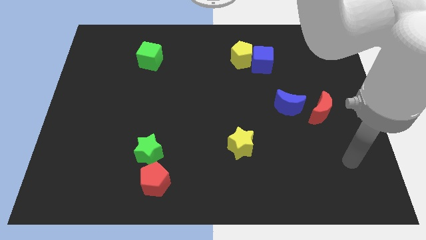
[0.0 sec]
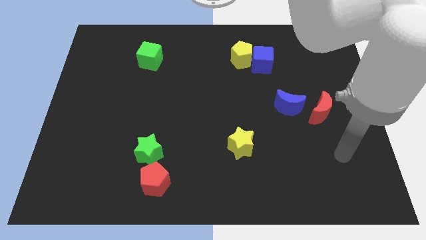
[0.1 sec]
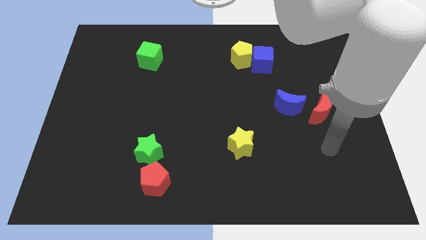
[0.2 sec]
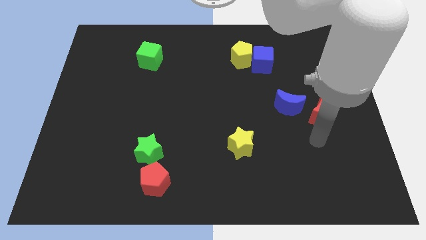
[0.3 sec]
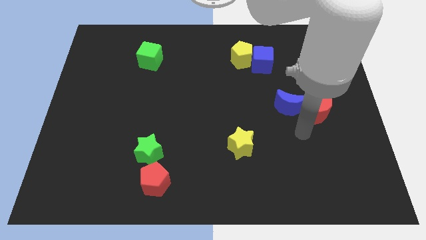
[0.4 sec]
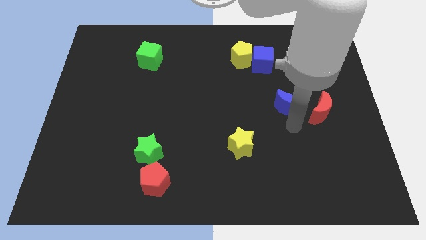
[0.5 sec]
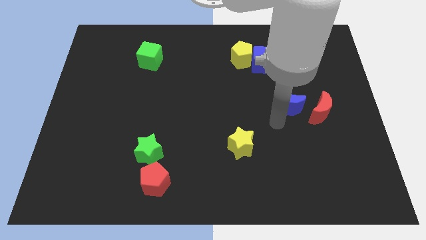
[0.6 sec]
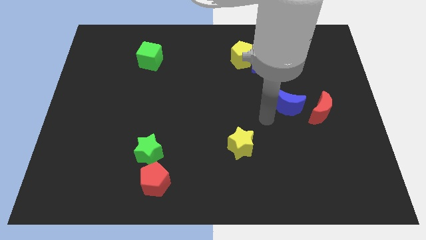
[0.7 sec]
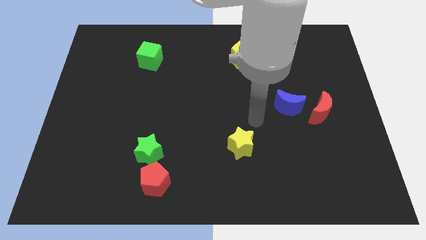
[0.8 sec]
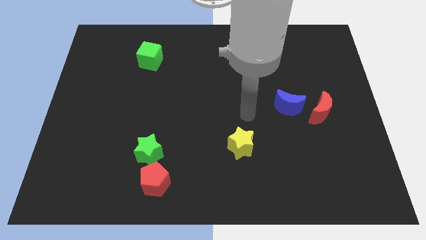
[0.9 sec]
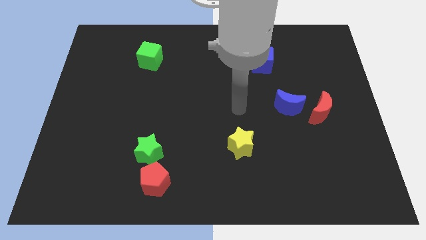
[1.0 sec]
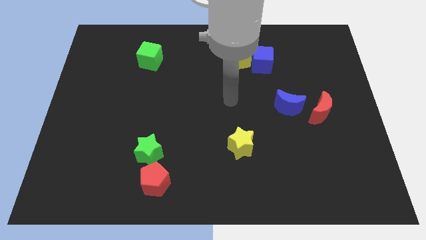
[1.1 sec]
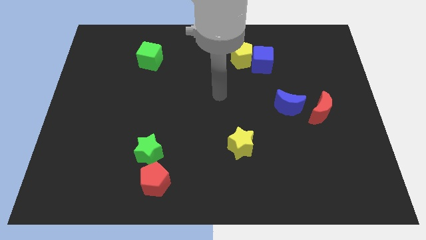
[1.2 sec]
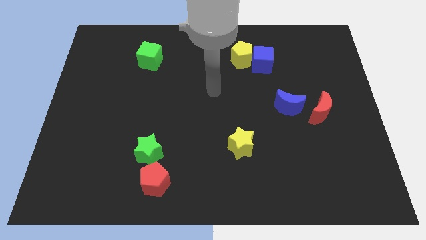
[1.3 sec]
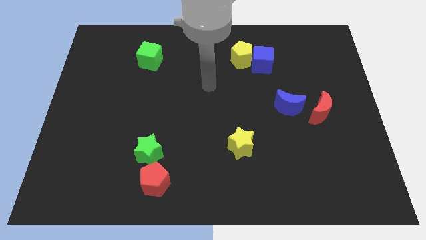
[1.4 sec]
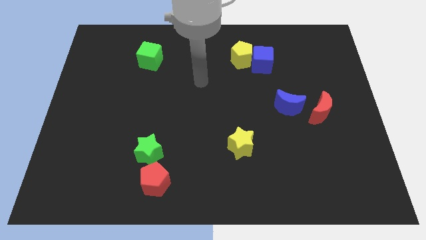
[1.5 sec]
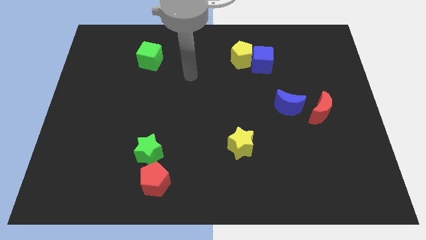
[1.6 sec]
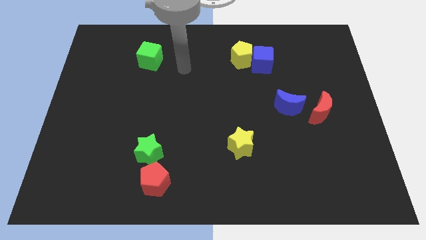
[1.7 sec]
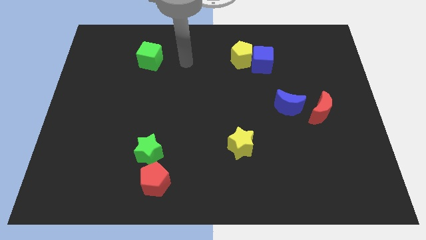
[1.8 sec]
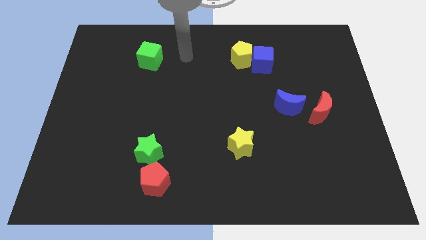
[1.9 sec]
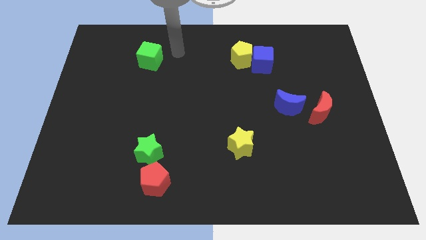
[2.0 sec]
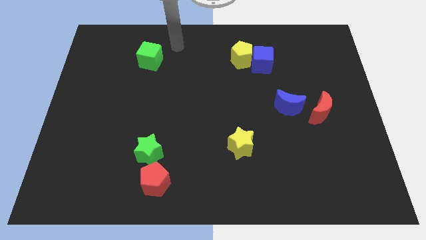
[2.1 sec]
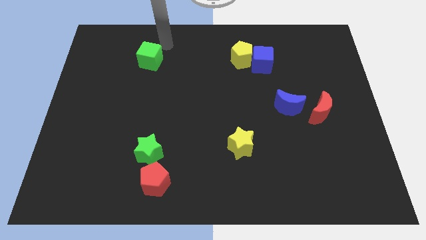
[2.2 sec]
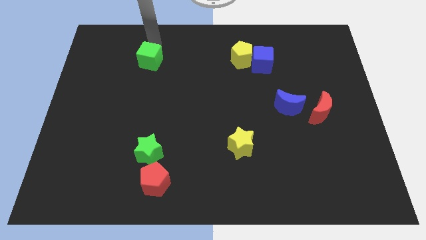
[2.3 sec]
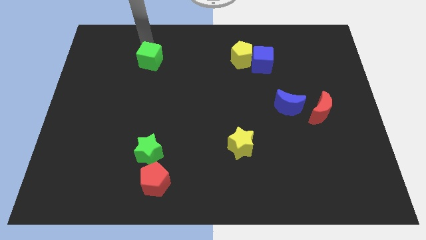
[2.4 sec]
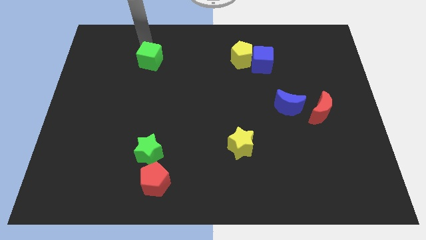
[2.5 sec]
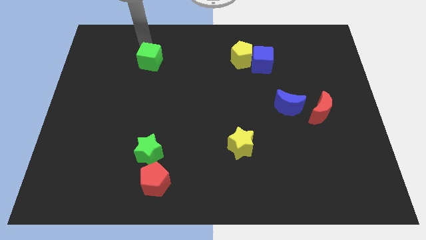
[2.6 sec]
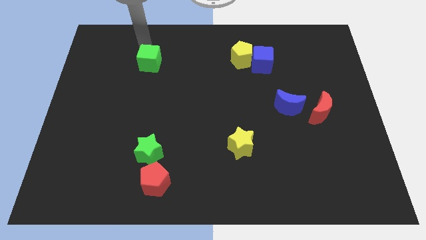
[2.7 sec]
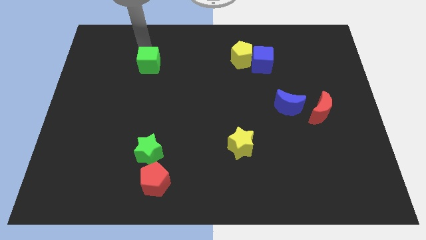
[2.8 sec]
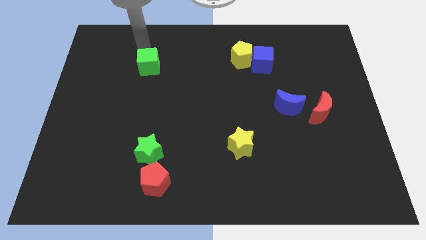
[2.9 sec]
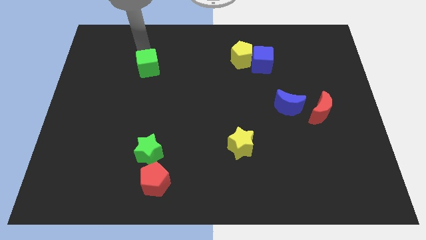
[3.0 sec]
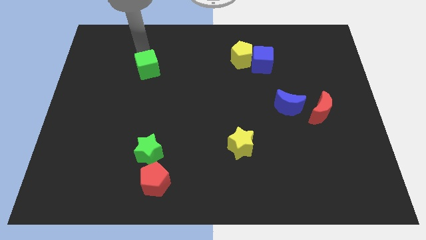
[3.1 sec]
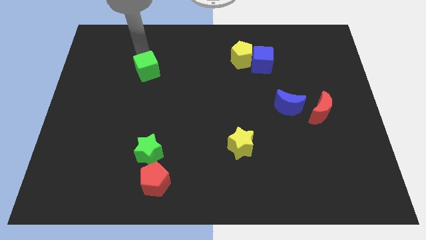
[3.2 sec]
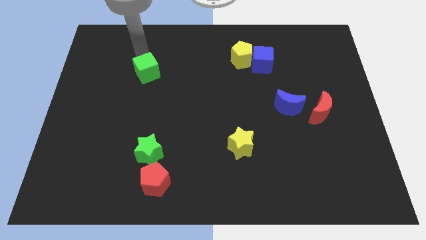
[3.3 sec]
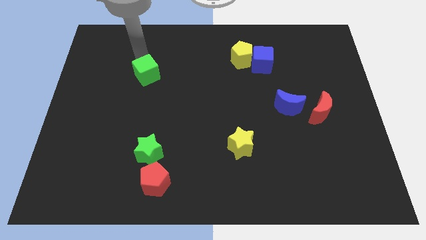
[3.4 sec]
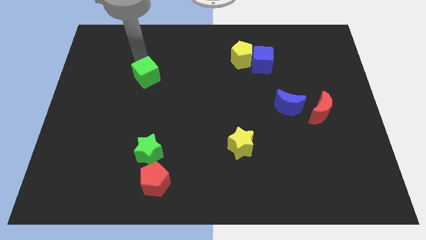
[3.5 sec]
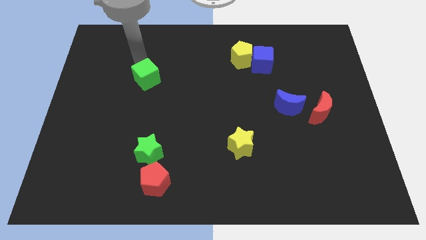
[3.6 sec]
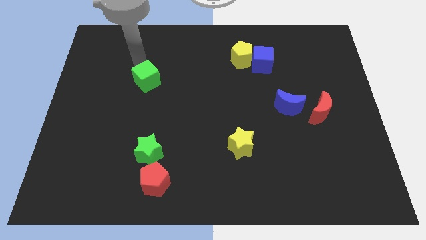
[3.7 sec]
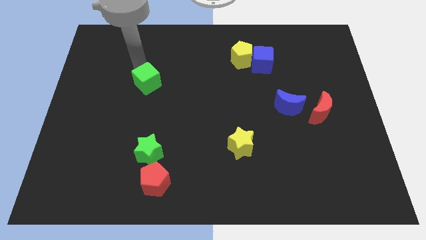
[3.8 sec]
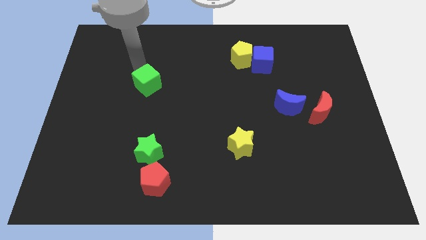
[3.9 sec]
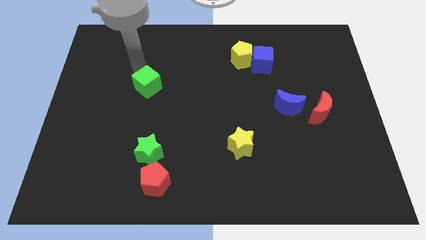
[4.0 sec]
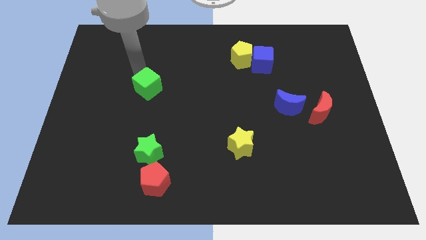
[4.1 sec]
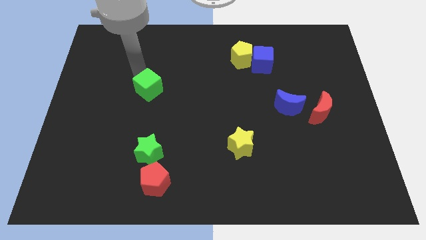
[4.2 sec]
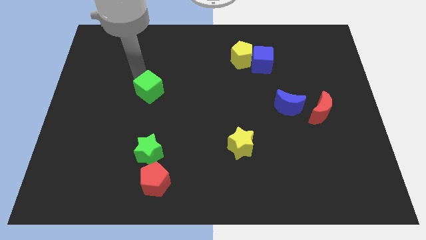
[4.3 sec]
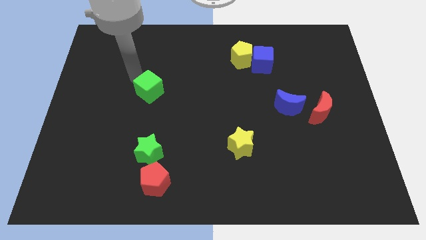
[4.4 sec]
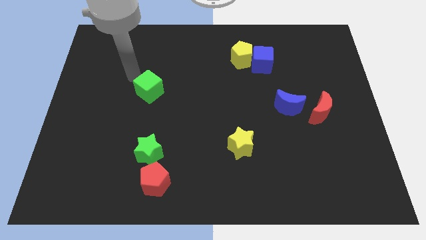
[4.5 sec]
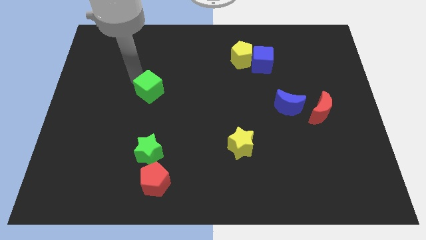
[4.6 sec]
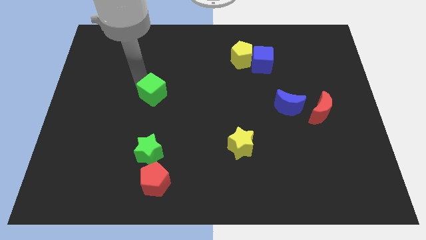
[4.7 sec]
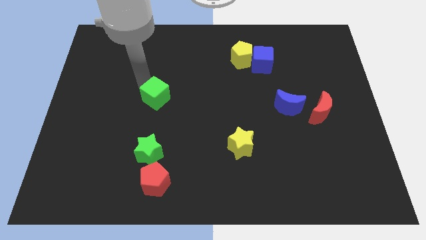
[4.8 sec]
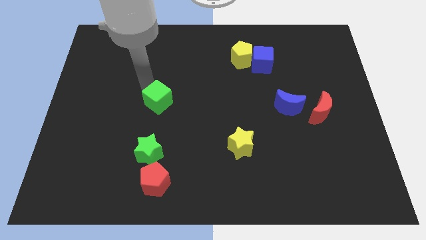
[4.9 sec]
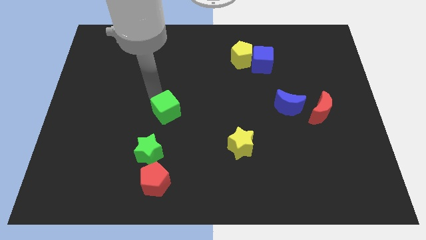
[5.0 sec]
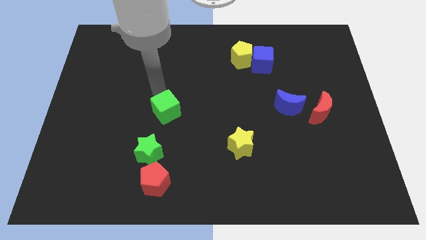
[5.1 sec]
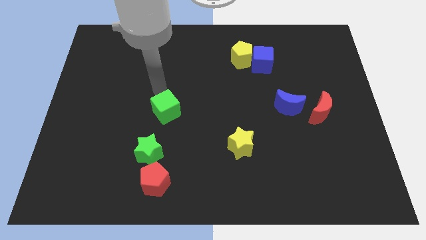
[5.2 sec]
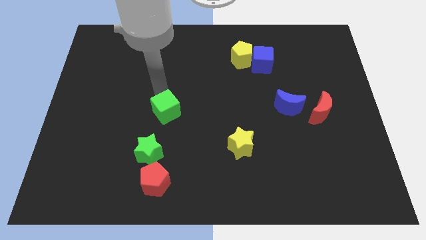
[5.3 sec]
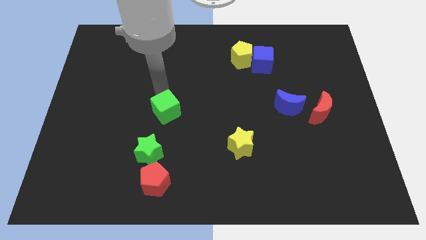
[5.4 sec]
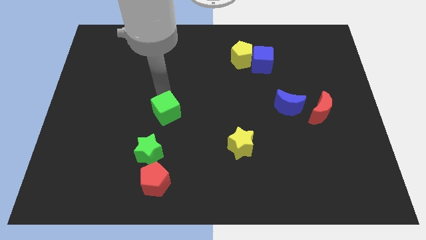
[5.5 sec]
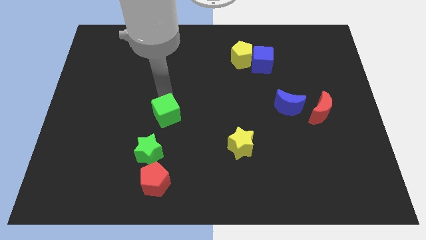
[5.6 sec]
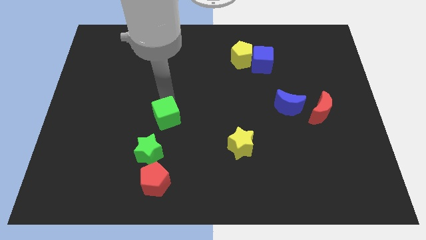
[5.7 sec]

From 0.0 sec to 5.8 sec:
put the green cube to the top right of the green star
